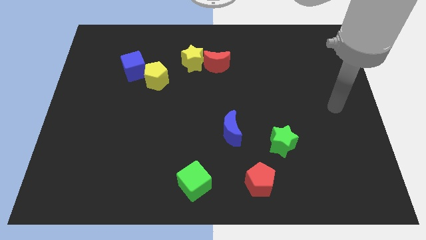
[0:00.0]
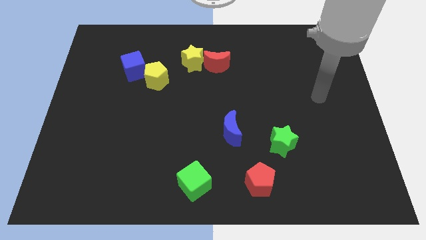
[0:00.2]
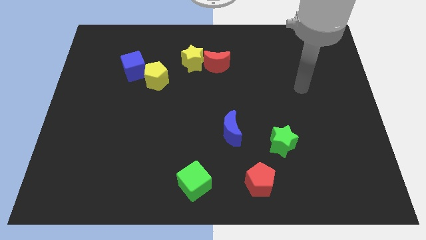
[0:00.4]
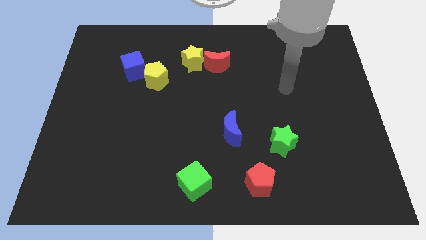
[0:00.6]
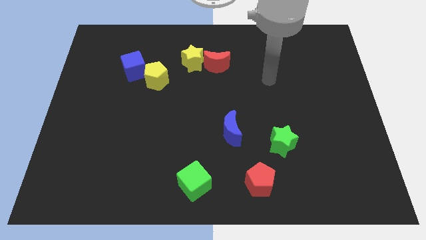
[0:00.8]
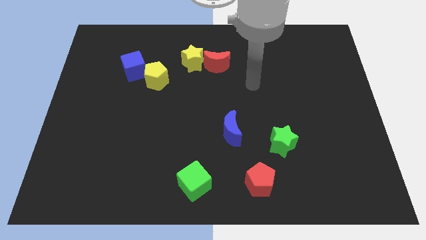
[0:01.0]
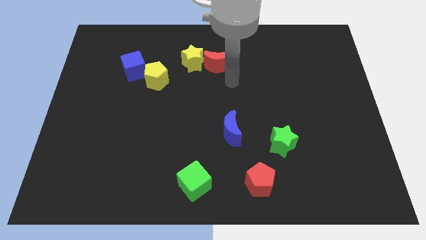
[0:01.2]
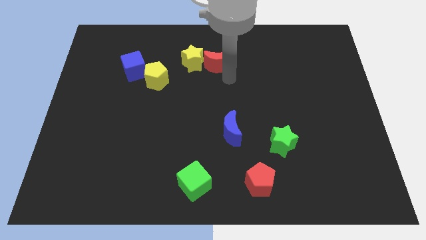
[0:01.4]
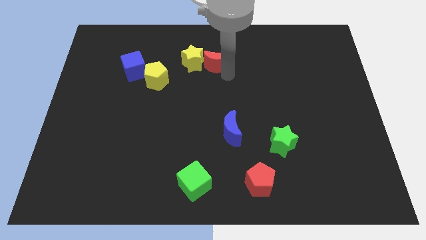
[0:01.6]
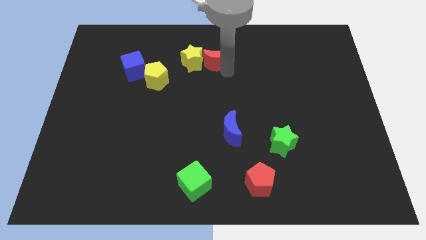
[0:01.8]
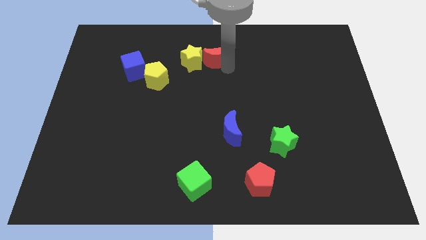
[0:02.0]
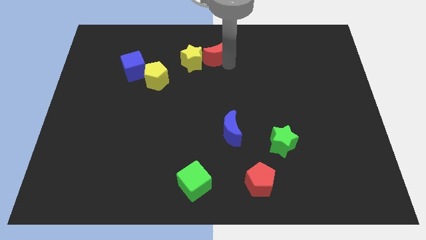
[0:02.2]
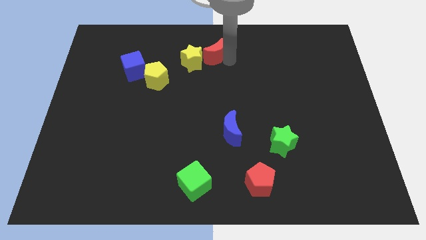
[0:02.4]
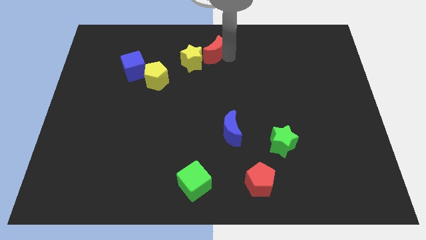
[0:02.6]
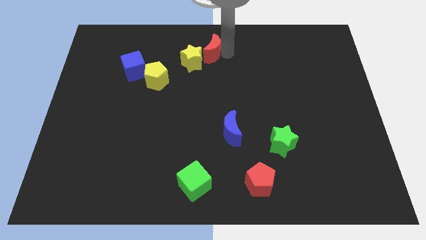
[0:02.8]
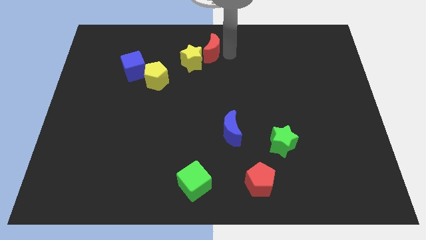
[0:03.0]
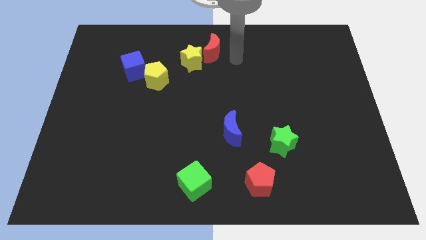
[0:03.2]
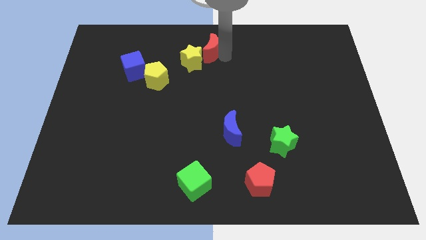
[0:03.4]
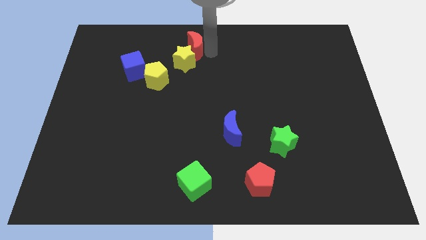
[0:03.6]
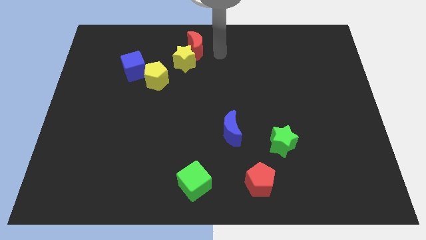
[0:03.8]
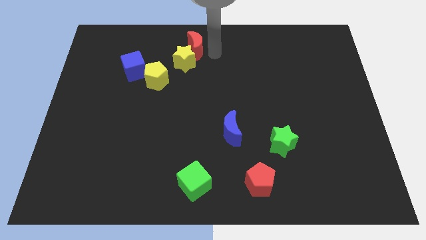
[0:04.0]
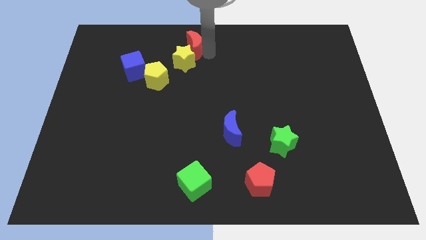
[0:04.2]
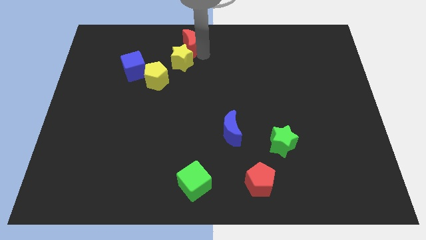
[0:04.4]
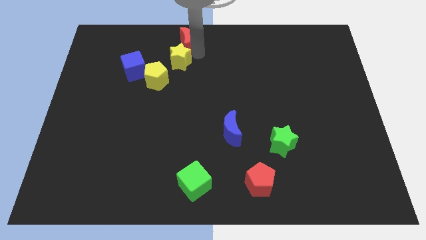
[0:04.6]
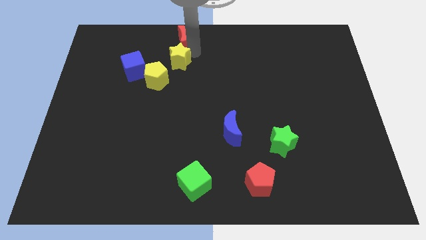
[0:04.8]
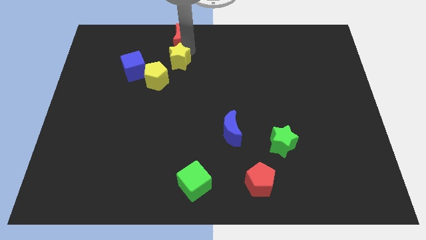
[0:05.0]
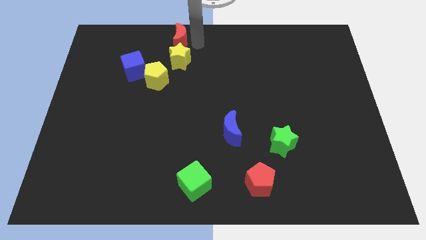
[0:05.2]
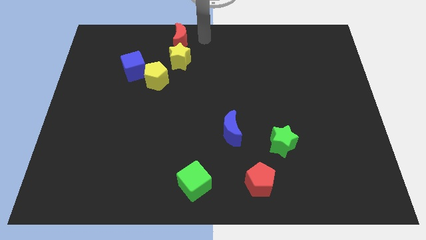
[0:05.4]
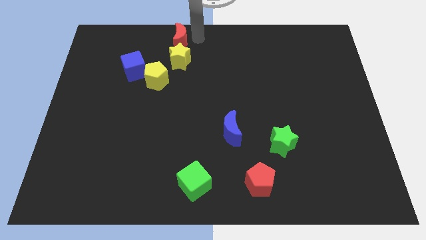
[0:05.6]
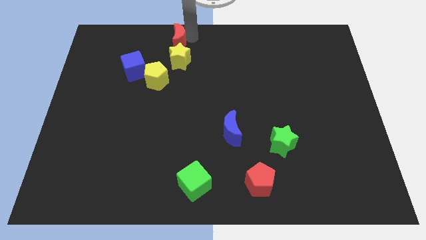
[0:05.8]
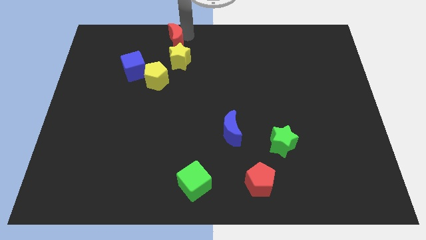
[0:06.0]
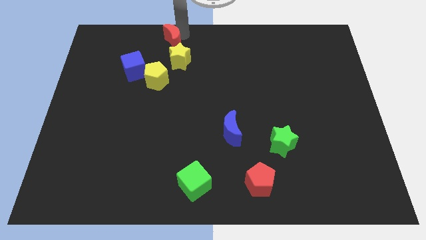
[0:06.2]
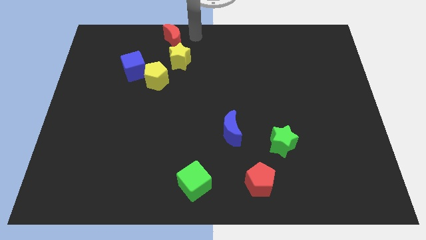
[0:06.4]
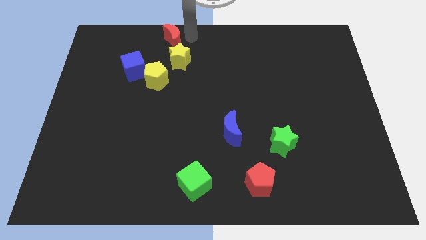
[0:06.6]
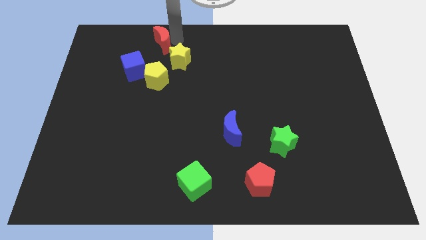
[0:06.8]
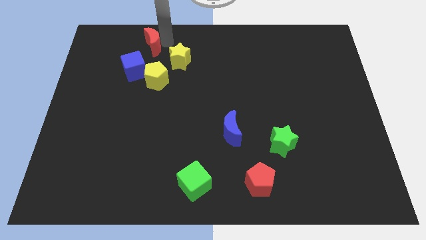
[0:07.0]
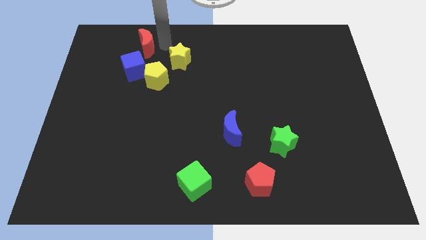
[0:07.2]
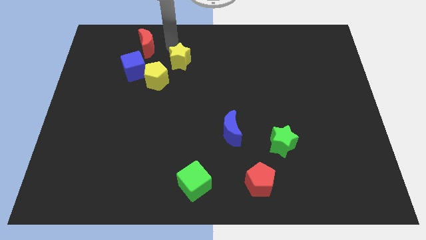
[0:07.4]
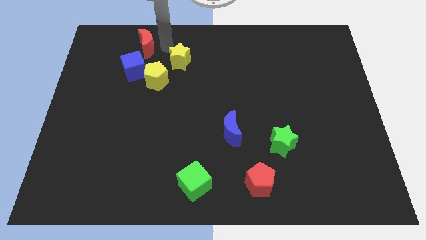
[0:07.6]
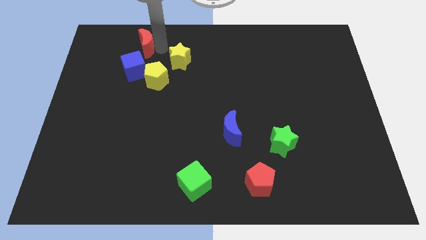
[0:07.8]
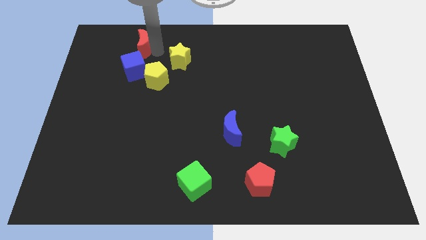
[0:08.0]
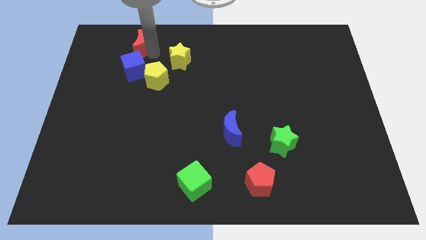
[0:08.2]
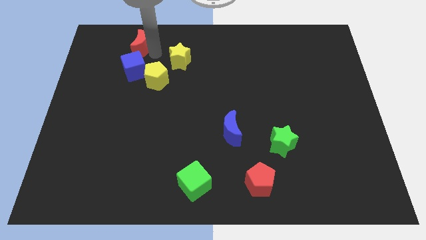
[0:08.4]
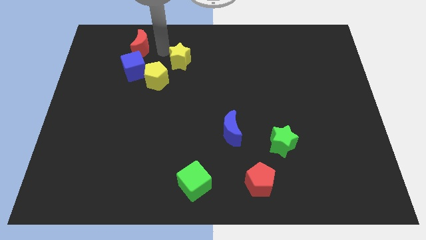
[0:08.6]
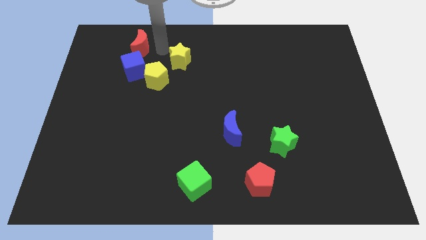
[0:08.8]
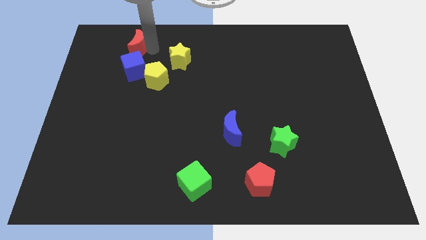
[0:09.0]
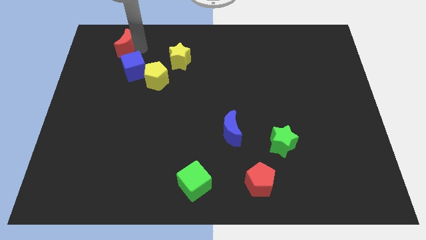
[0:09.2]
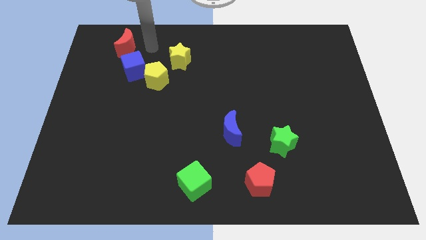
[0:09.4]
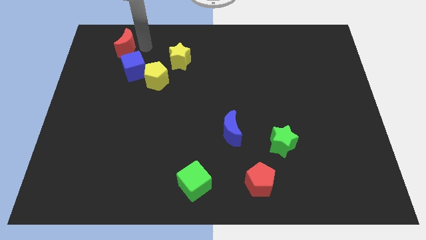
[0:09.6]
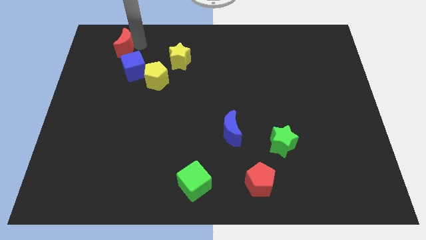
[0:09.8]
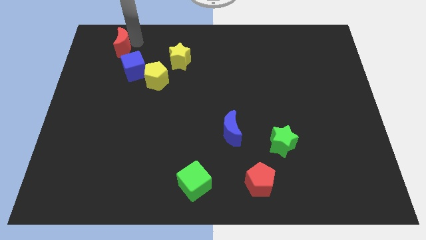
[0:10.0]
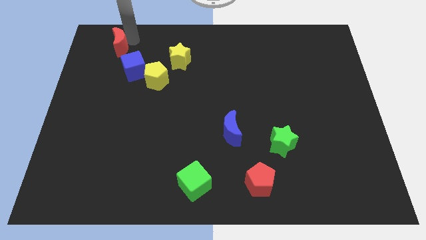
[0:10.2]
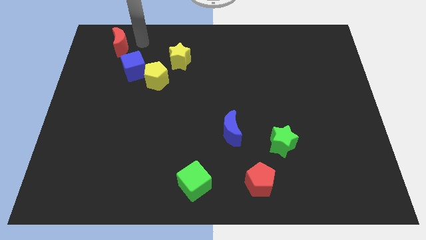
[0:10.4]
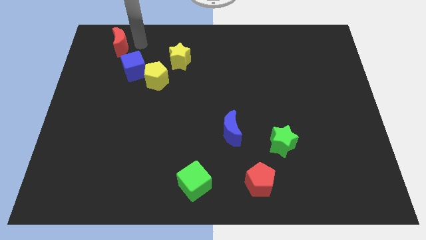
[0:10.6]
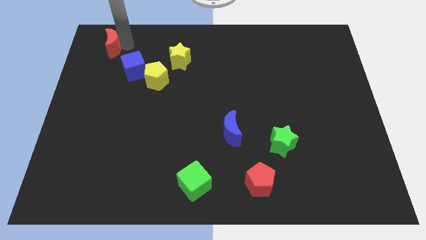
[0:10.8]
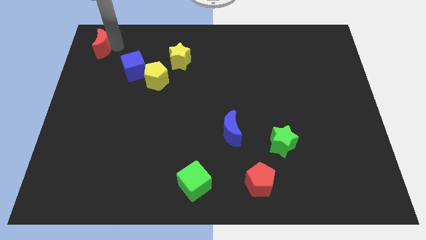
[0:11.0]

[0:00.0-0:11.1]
move the red moon to the top left

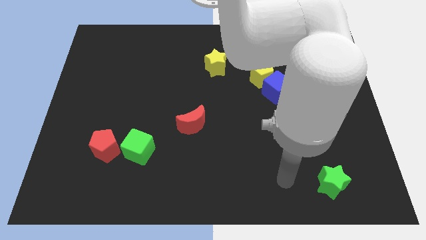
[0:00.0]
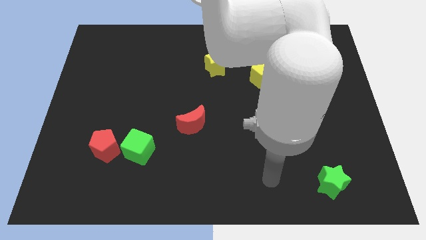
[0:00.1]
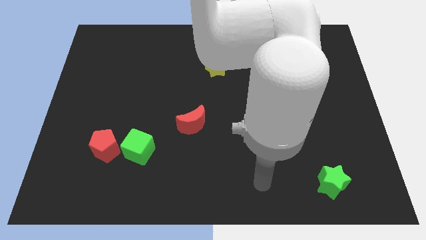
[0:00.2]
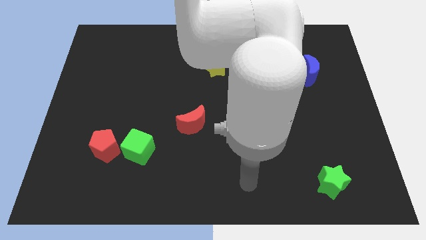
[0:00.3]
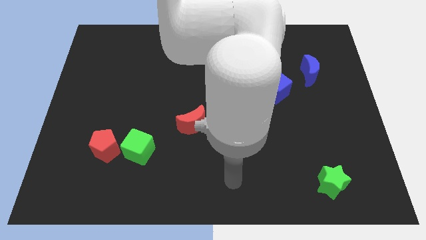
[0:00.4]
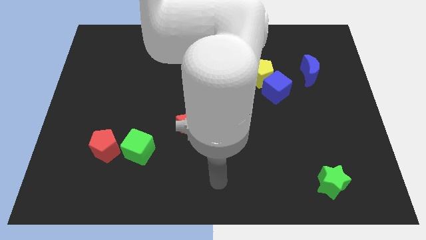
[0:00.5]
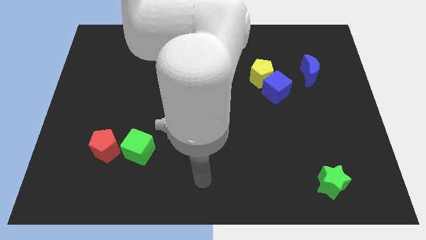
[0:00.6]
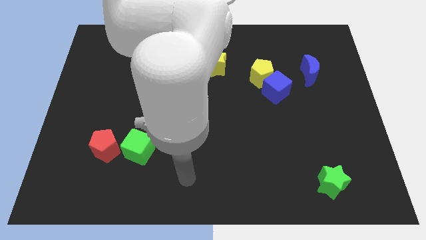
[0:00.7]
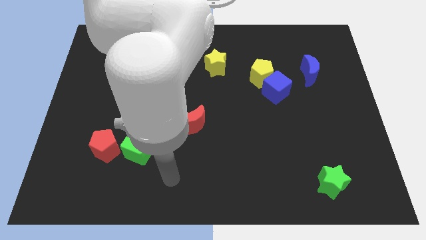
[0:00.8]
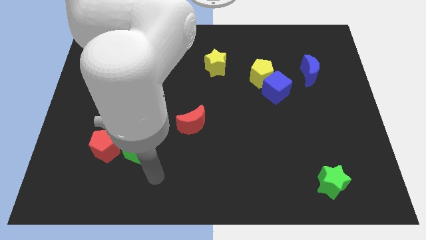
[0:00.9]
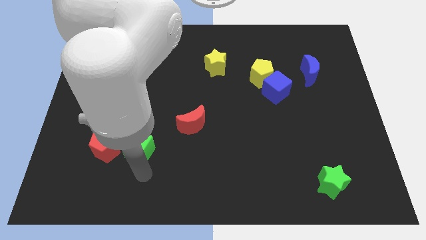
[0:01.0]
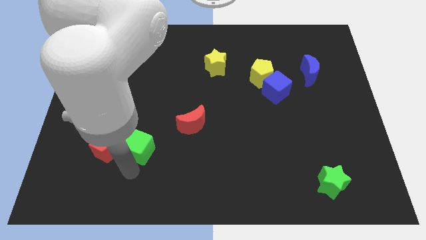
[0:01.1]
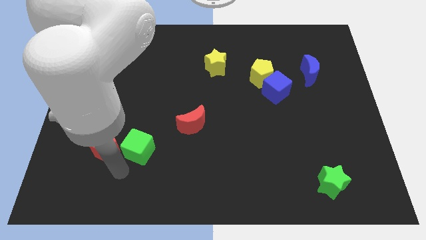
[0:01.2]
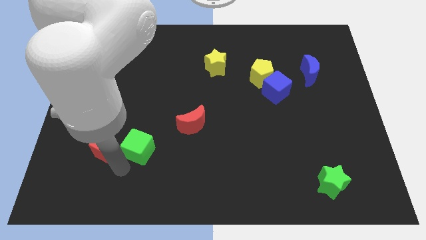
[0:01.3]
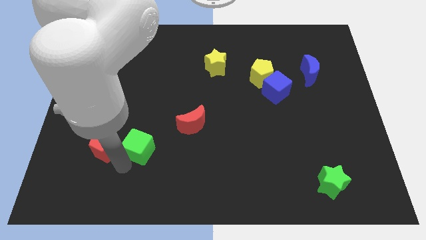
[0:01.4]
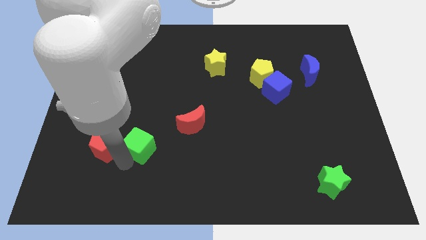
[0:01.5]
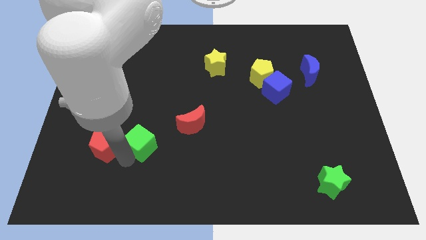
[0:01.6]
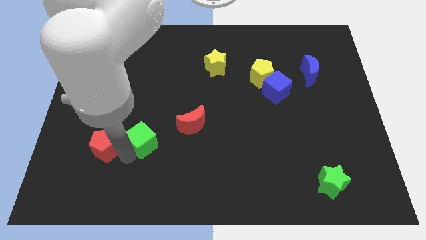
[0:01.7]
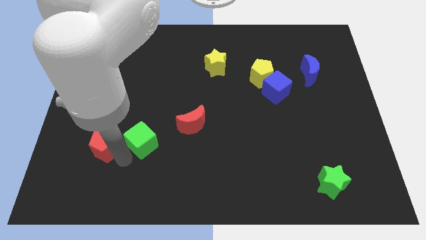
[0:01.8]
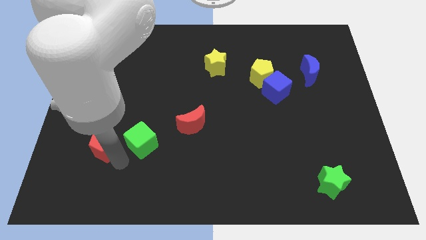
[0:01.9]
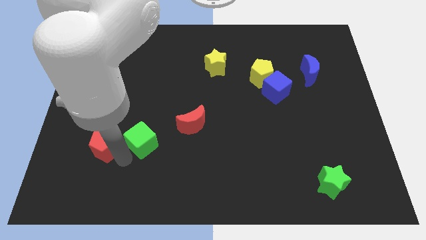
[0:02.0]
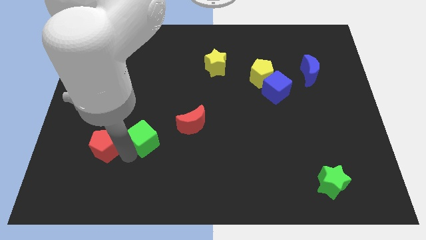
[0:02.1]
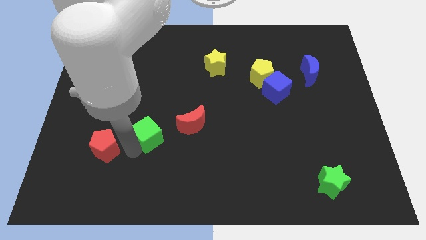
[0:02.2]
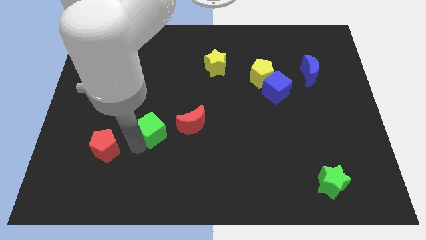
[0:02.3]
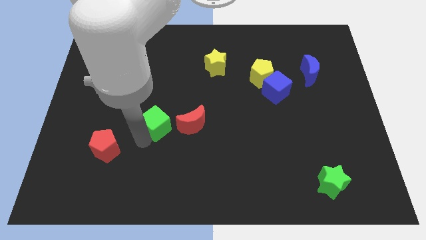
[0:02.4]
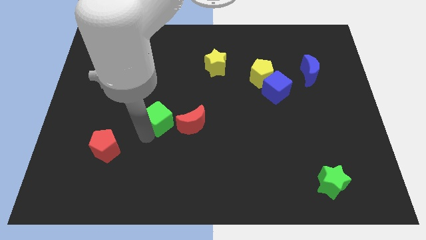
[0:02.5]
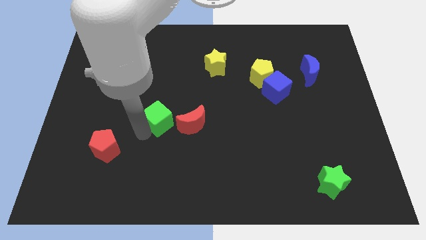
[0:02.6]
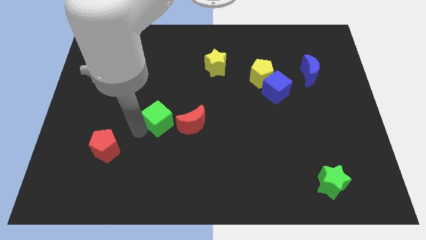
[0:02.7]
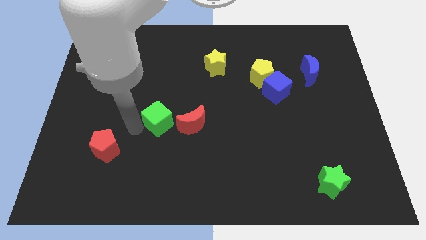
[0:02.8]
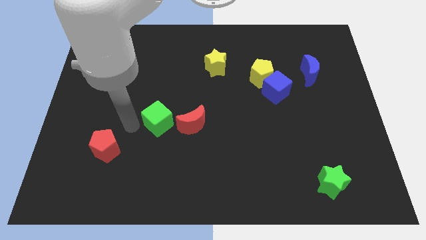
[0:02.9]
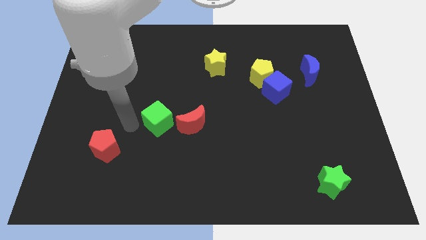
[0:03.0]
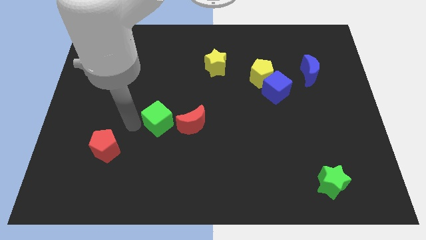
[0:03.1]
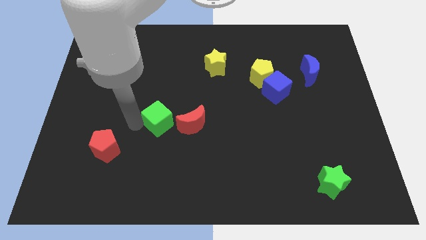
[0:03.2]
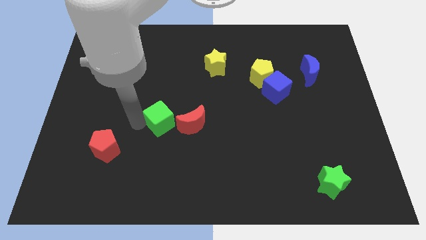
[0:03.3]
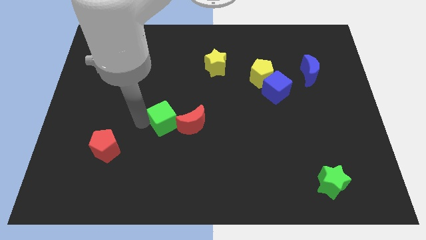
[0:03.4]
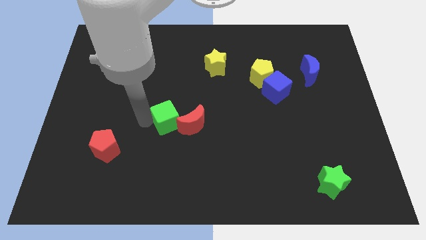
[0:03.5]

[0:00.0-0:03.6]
slide the green cube to the middle of the board
